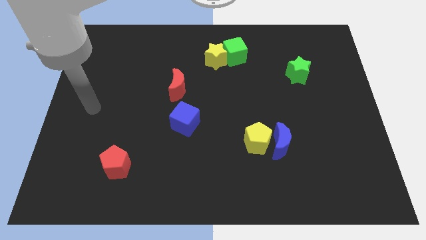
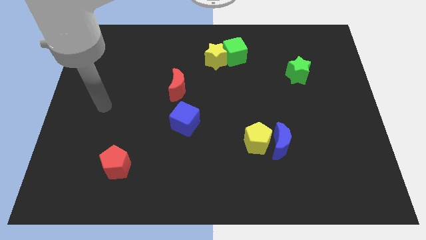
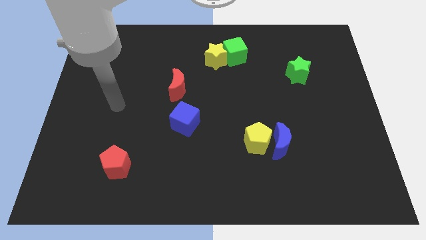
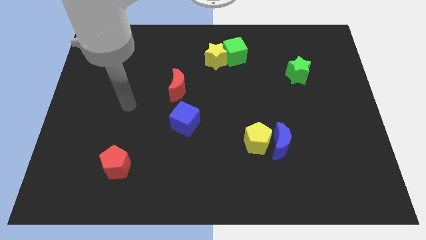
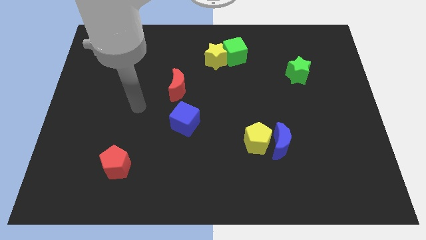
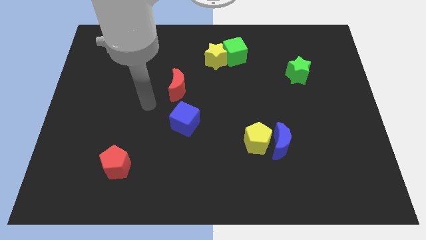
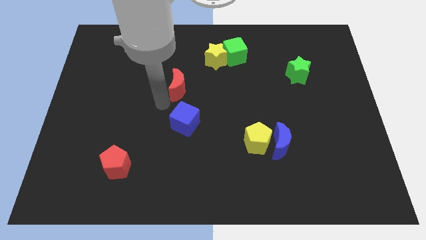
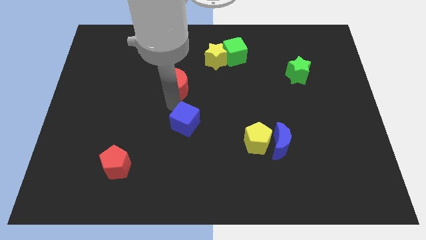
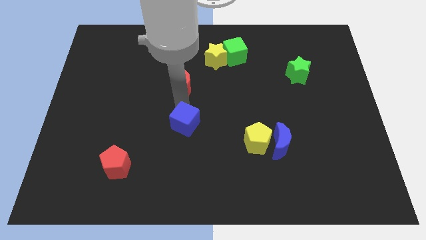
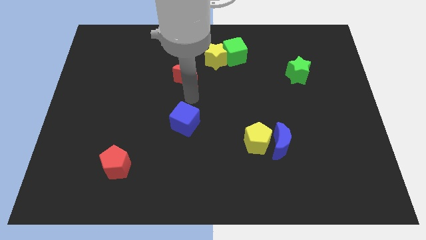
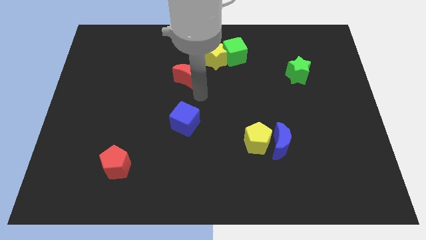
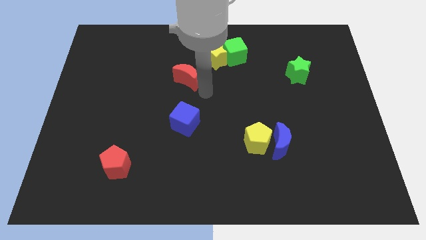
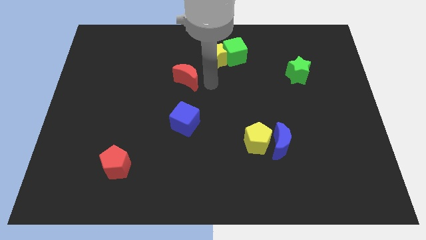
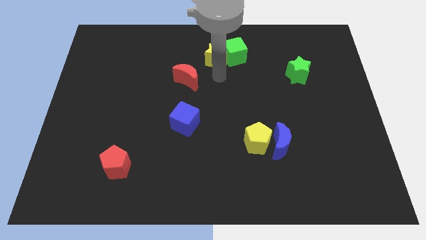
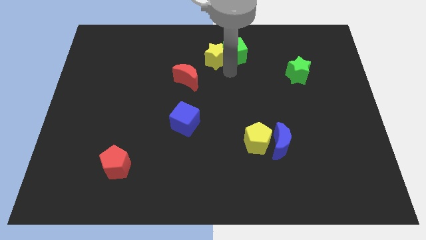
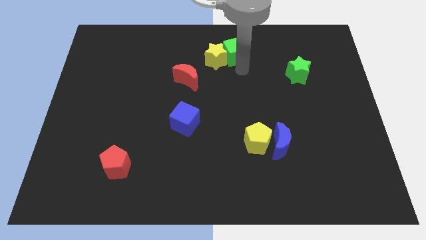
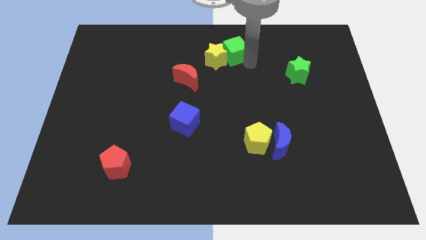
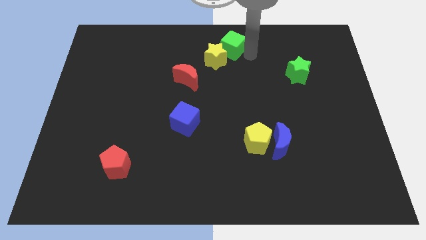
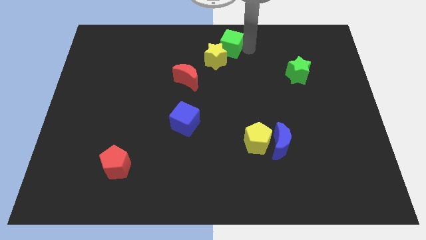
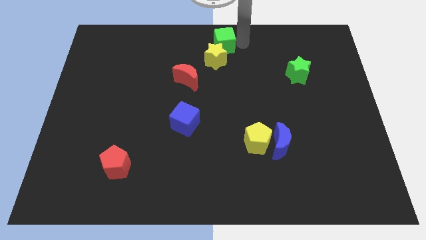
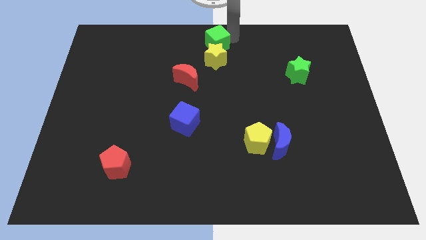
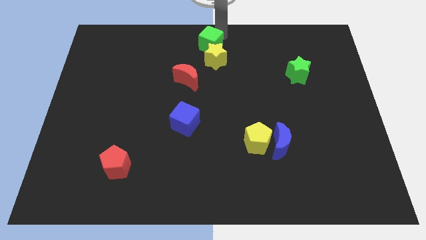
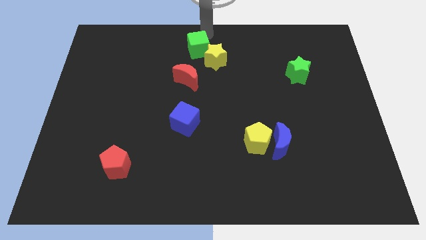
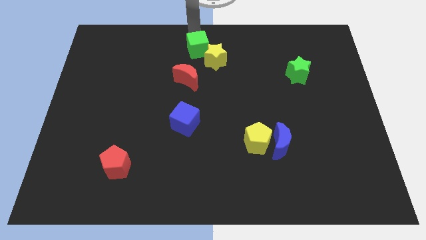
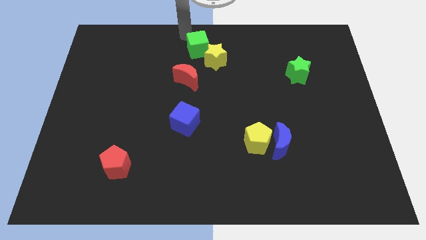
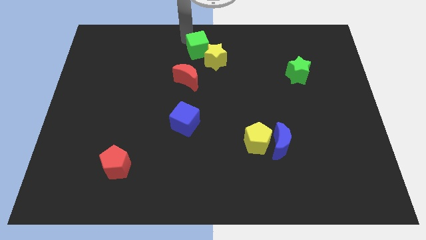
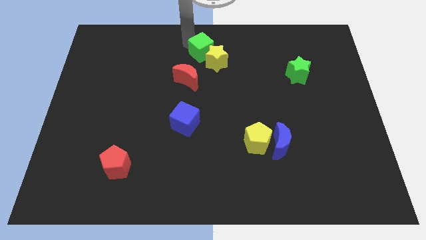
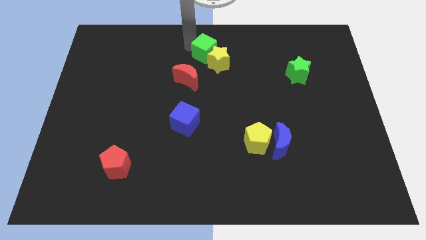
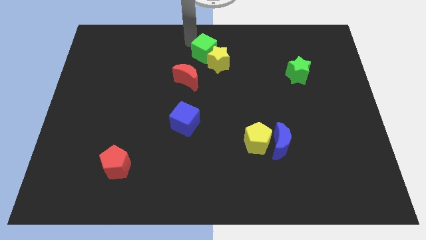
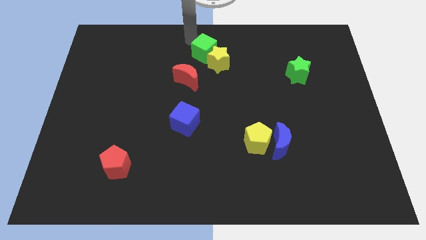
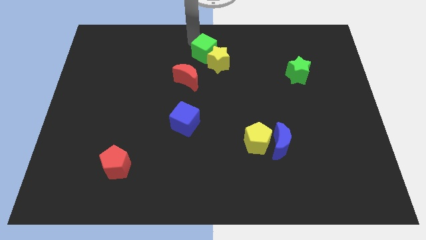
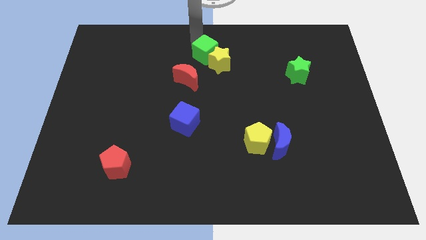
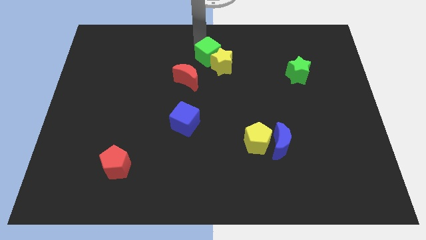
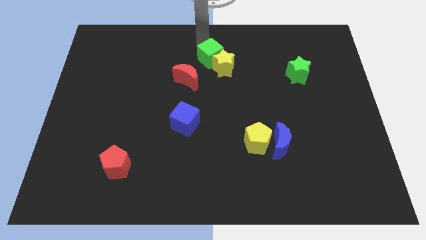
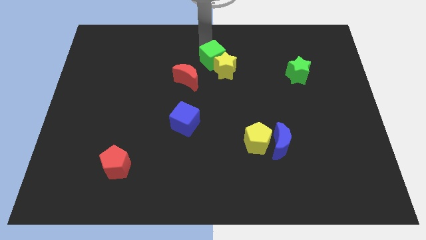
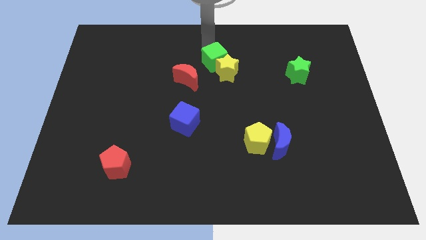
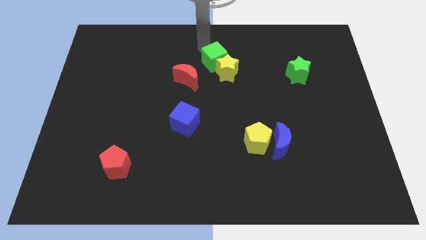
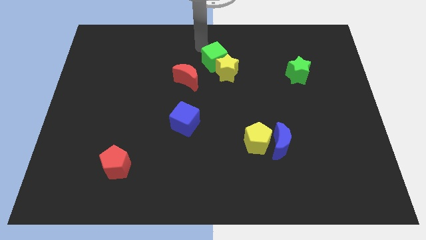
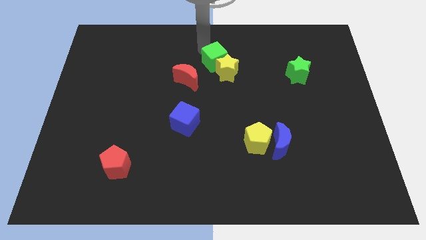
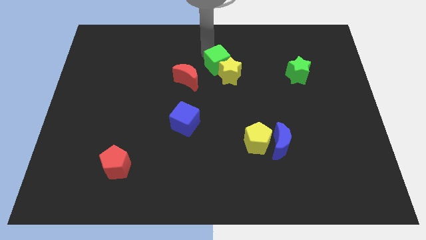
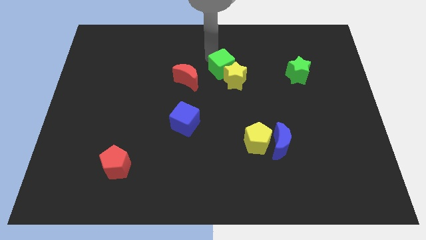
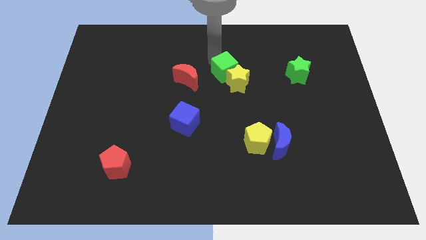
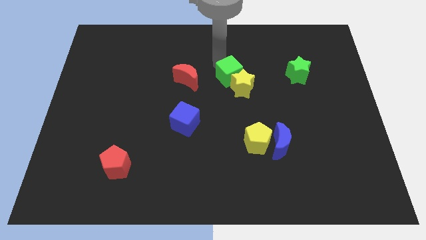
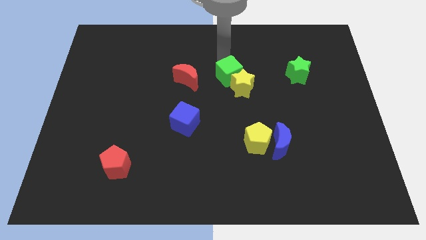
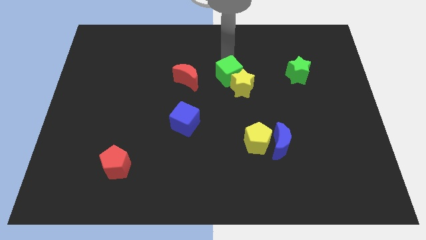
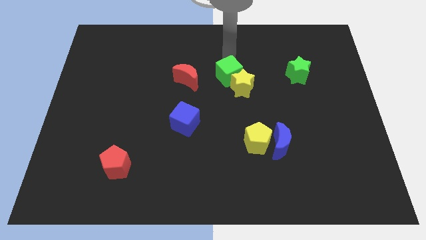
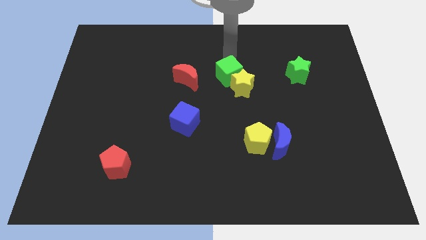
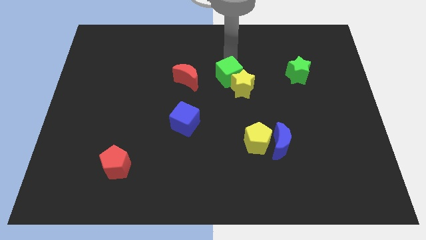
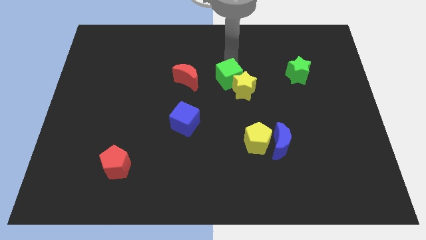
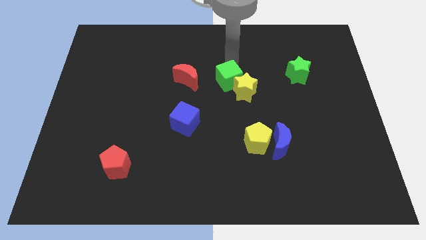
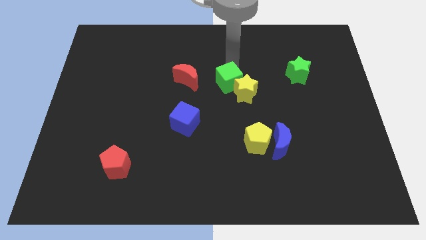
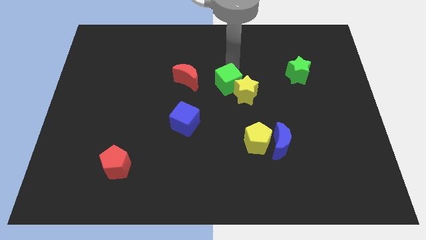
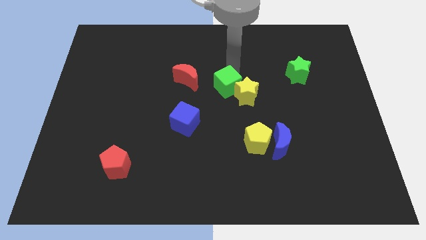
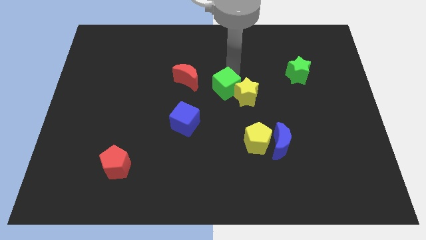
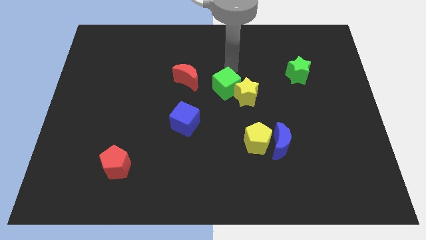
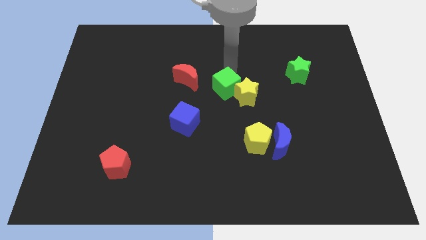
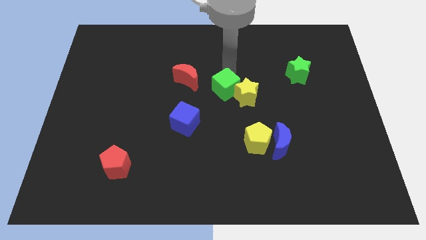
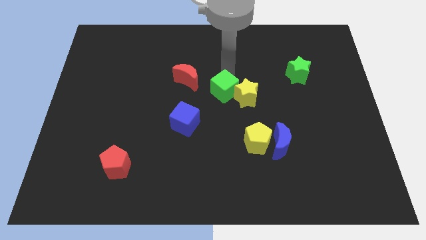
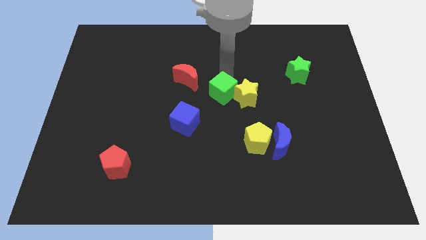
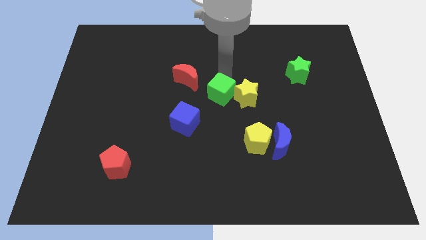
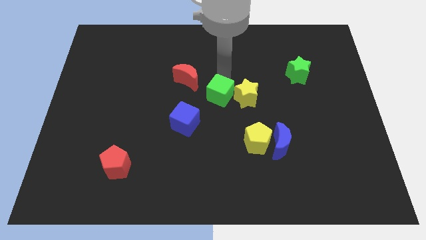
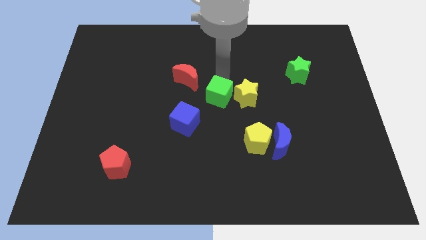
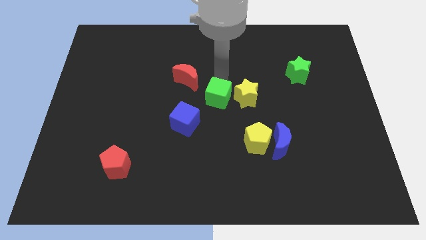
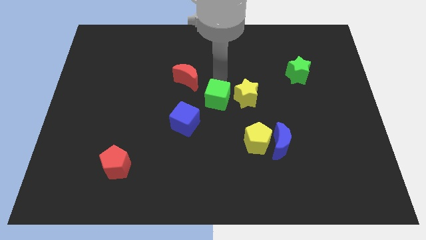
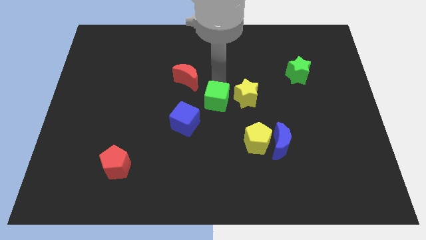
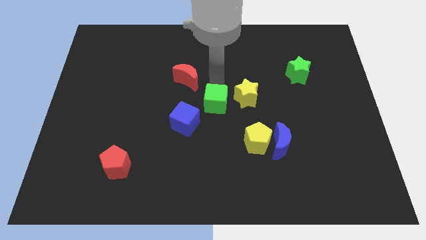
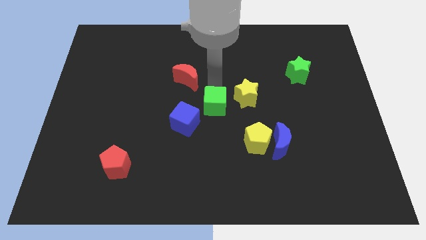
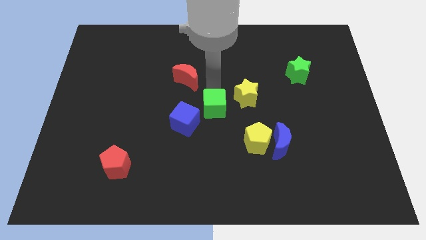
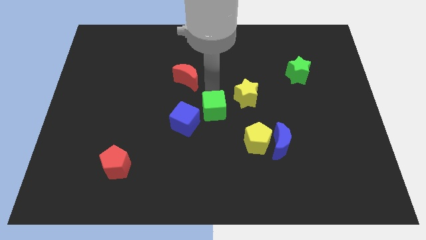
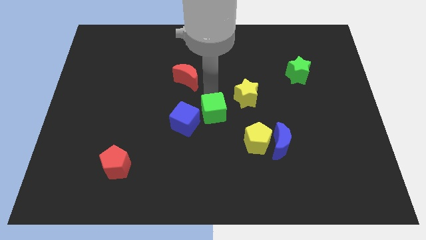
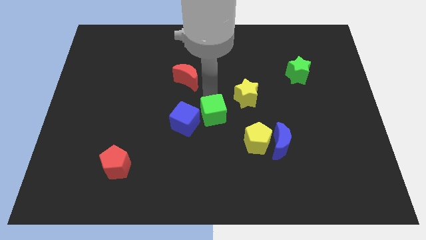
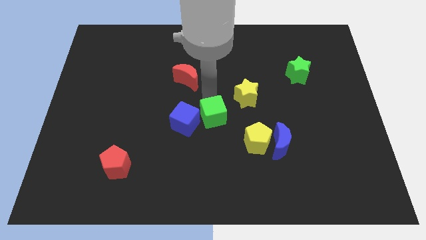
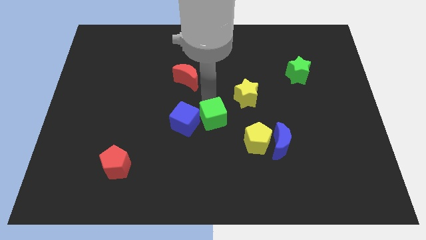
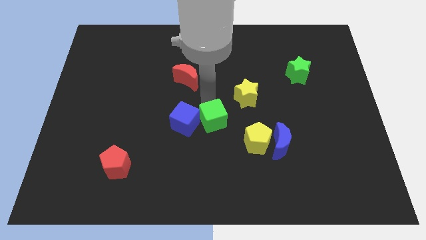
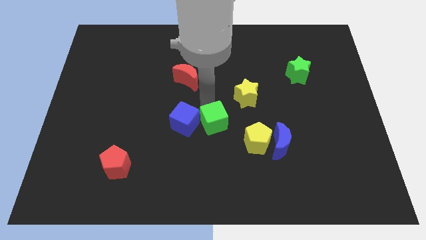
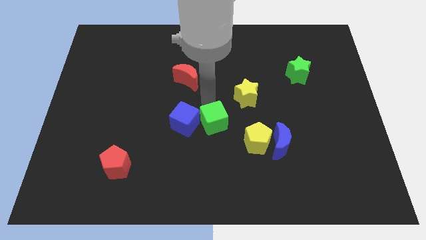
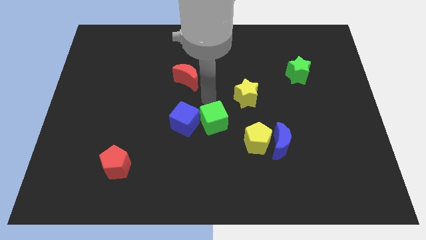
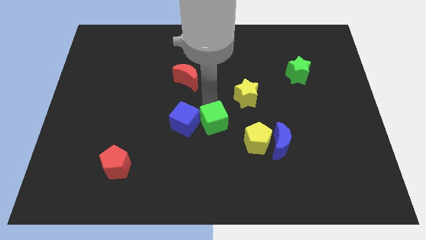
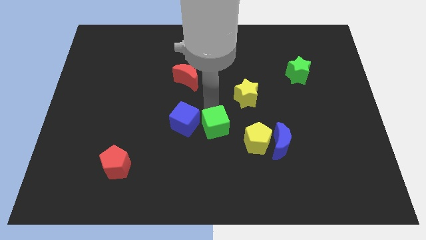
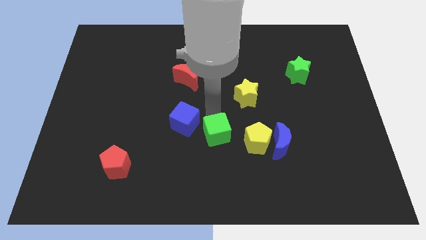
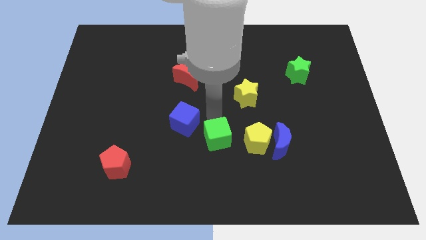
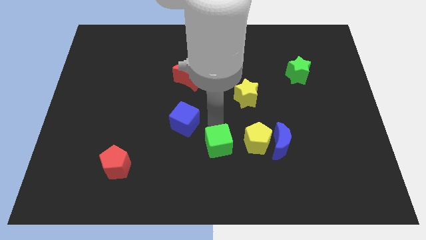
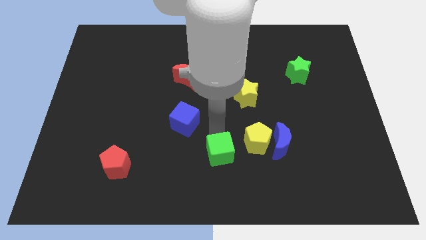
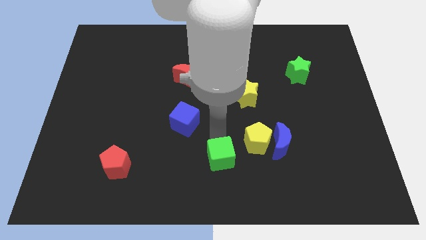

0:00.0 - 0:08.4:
move the green cube to the bottom side
